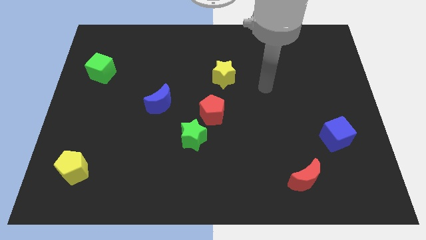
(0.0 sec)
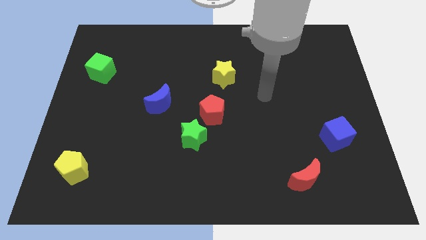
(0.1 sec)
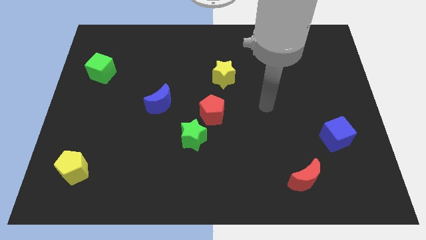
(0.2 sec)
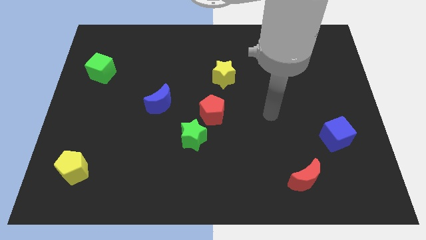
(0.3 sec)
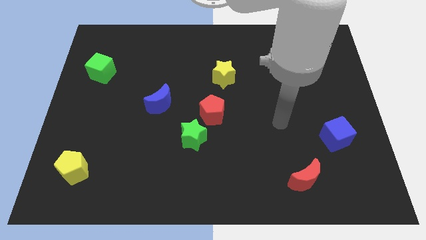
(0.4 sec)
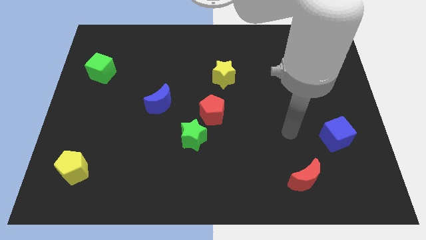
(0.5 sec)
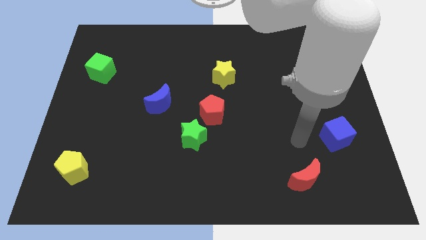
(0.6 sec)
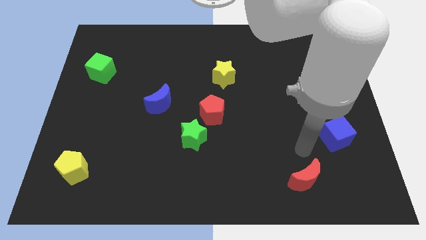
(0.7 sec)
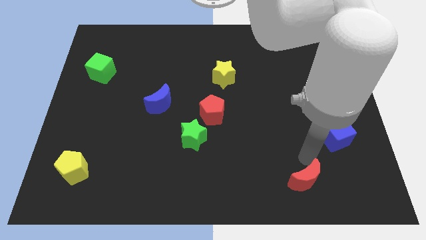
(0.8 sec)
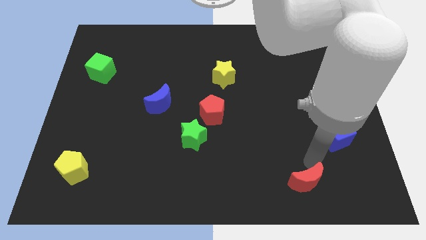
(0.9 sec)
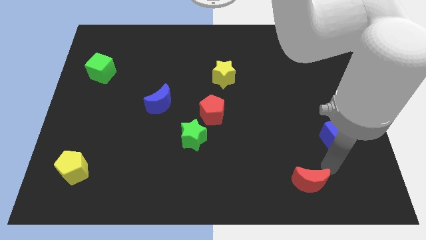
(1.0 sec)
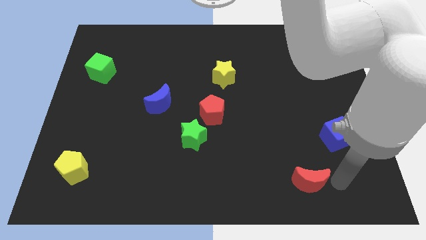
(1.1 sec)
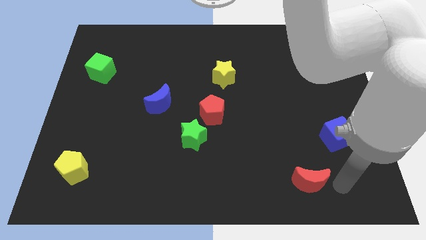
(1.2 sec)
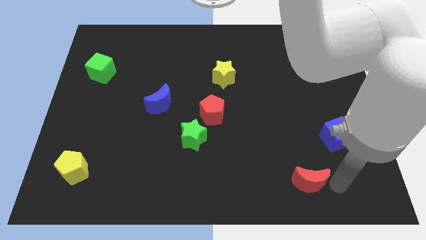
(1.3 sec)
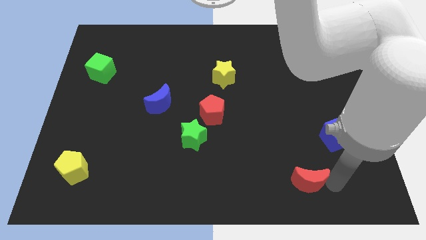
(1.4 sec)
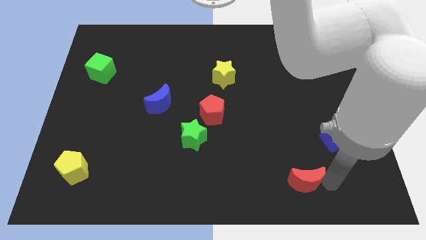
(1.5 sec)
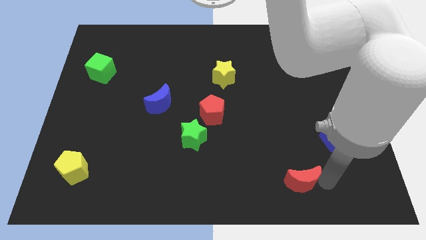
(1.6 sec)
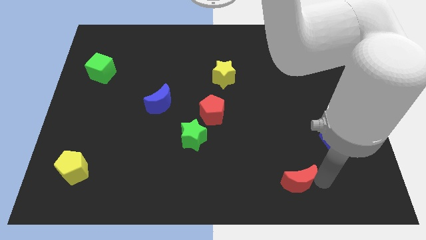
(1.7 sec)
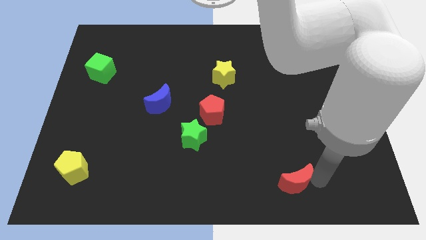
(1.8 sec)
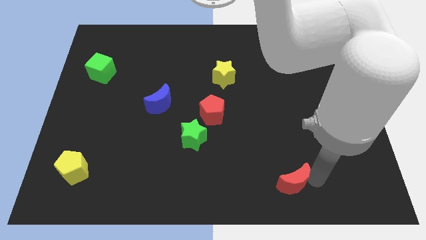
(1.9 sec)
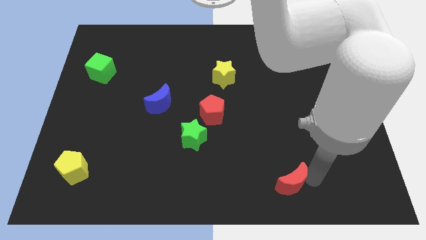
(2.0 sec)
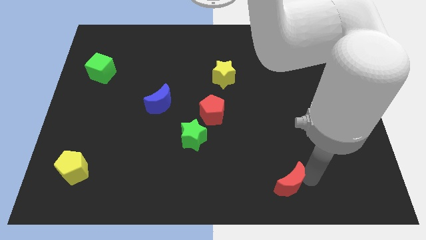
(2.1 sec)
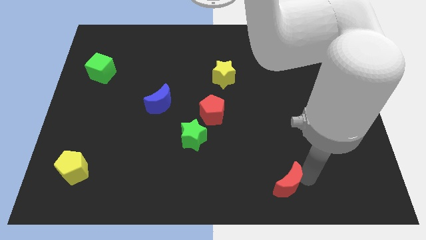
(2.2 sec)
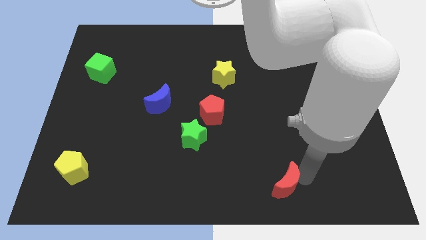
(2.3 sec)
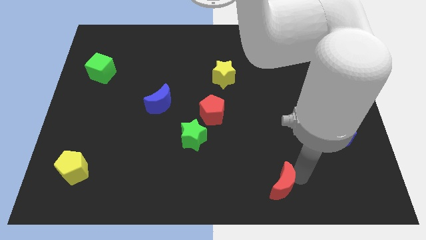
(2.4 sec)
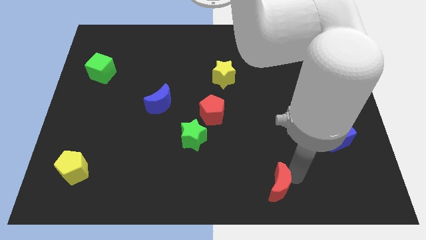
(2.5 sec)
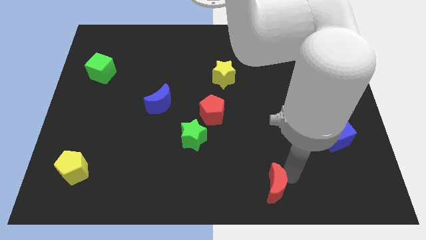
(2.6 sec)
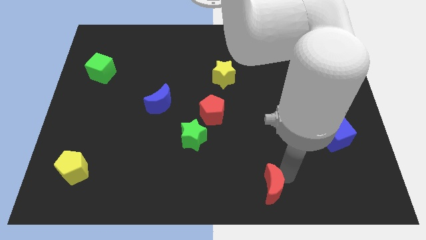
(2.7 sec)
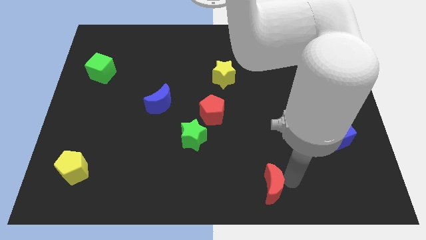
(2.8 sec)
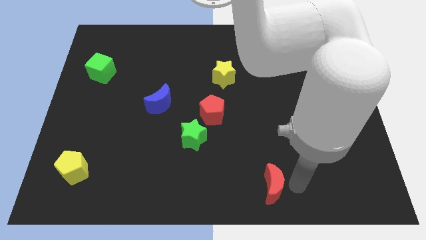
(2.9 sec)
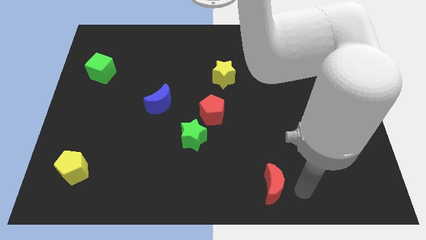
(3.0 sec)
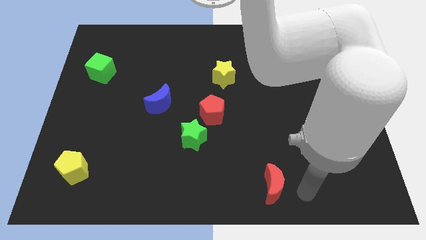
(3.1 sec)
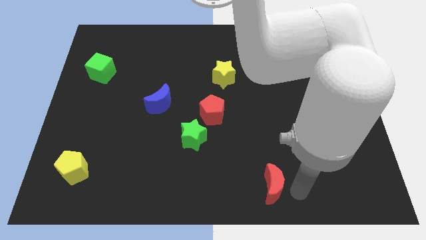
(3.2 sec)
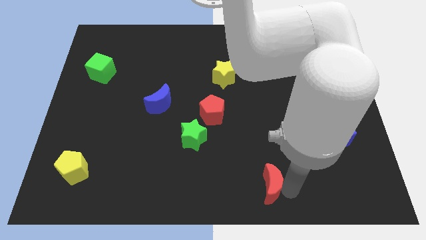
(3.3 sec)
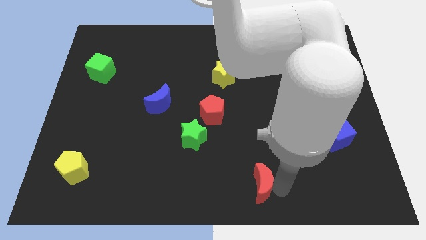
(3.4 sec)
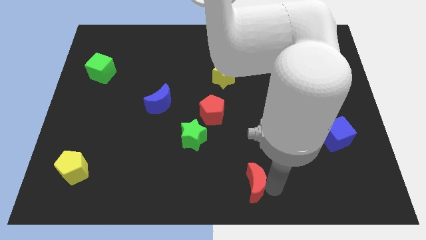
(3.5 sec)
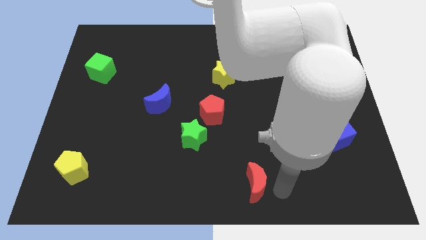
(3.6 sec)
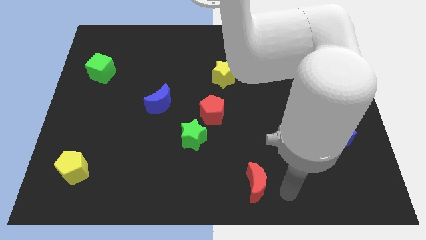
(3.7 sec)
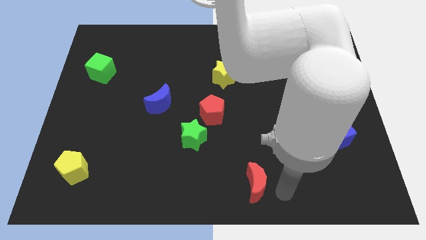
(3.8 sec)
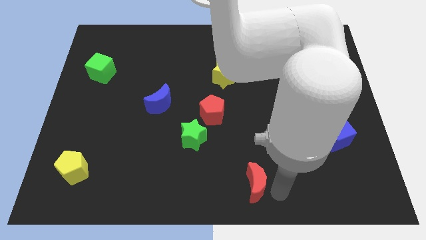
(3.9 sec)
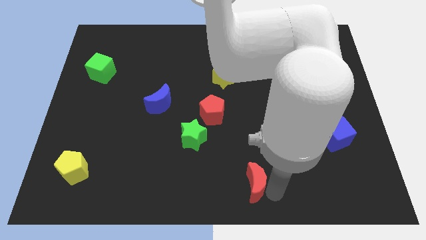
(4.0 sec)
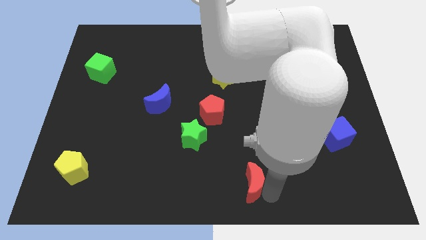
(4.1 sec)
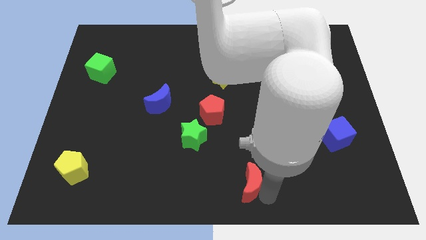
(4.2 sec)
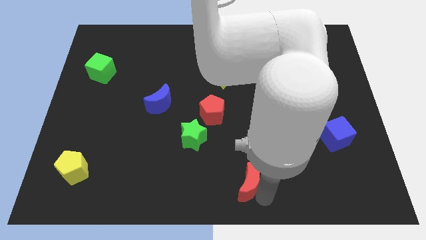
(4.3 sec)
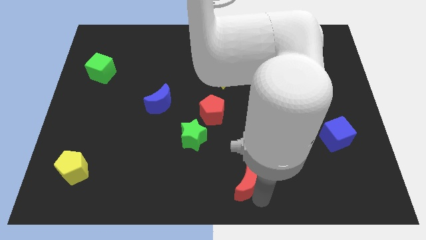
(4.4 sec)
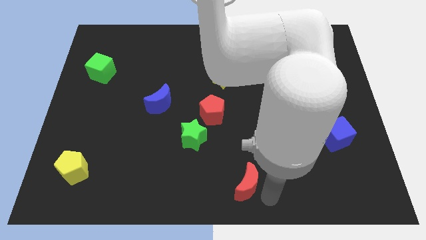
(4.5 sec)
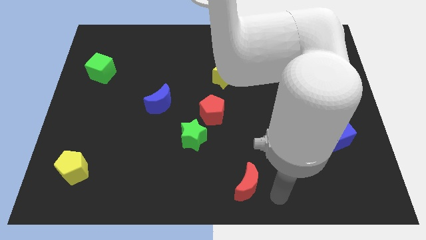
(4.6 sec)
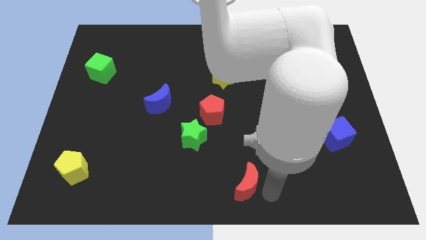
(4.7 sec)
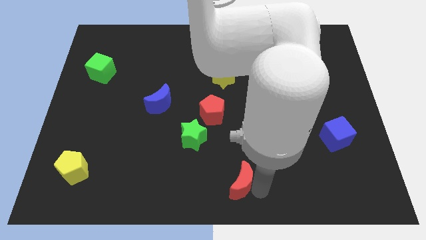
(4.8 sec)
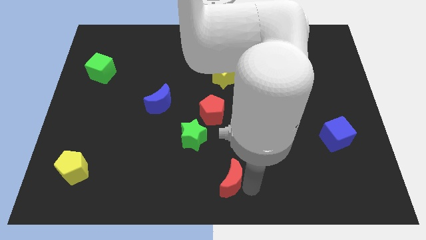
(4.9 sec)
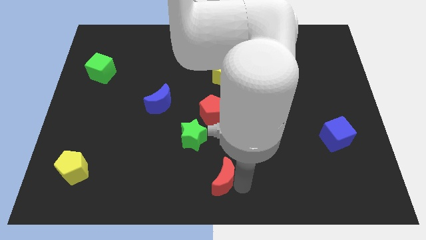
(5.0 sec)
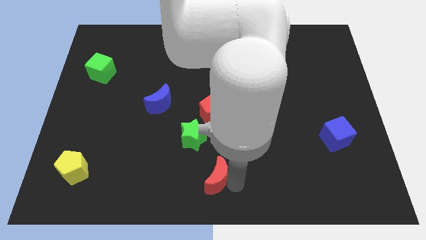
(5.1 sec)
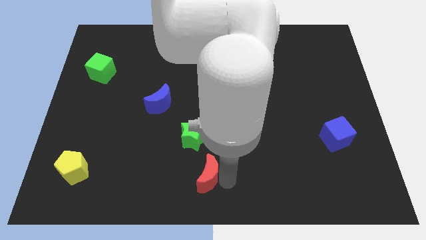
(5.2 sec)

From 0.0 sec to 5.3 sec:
put the red moon to the bottom side of the green star

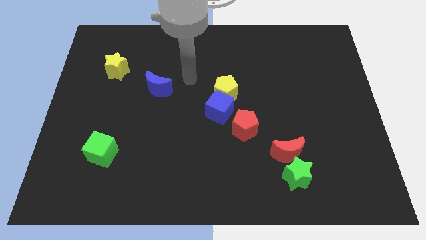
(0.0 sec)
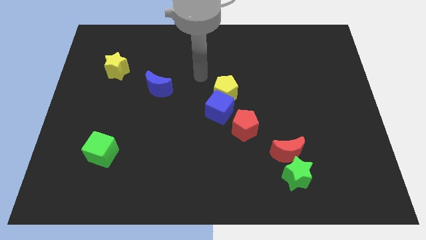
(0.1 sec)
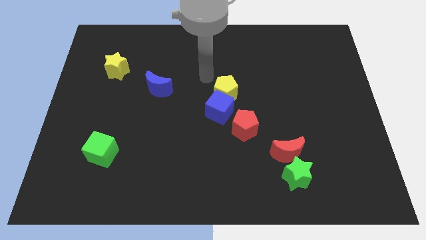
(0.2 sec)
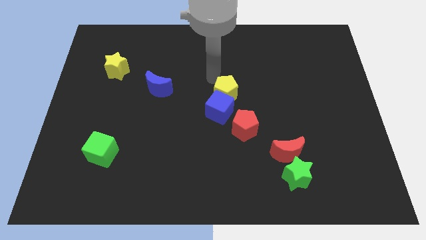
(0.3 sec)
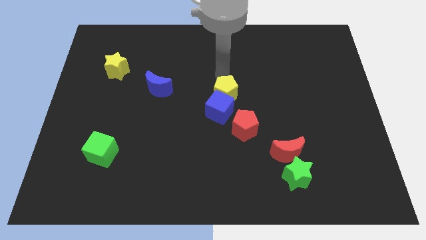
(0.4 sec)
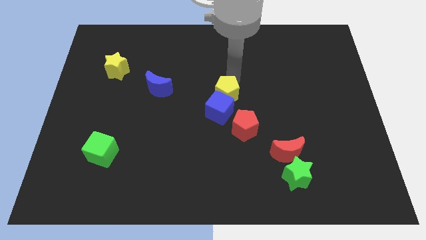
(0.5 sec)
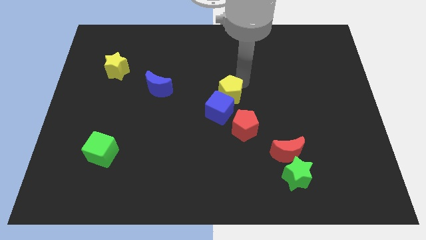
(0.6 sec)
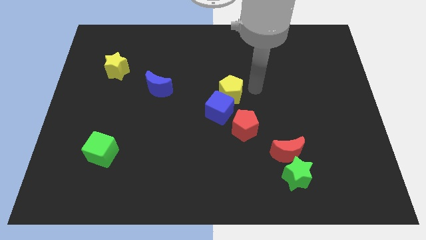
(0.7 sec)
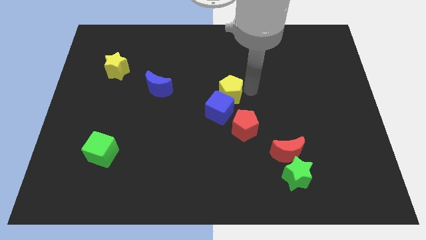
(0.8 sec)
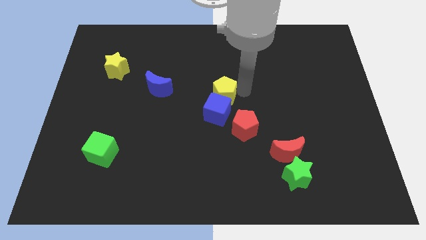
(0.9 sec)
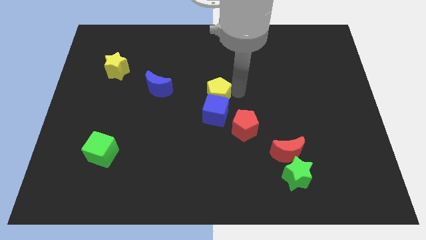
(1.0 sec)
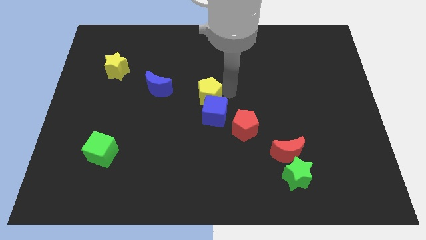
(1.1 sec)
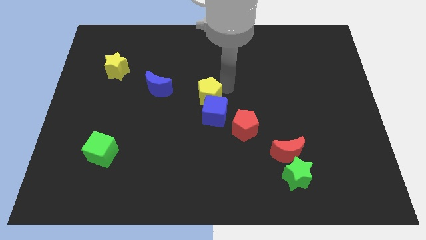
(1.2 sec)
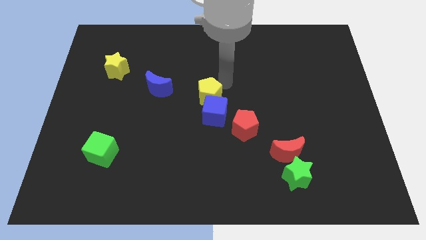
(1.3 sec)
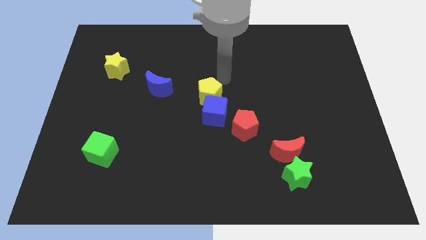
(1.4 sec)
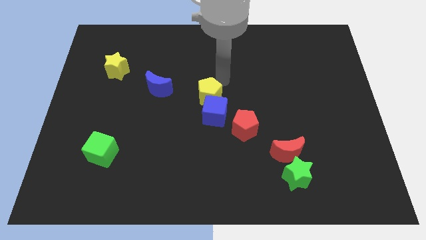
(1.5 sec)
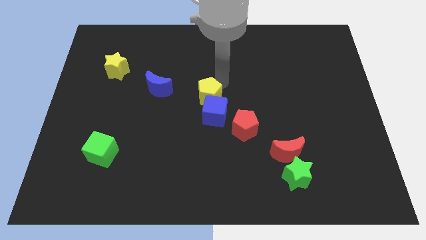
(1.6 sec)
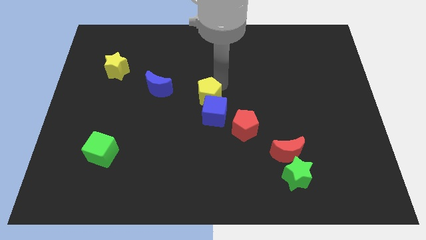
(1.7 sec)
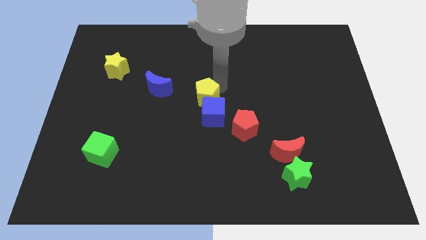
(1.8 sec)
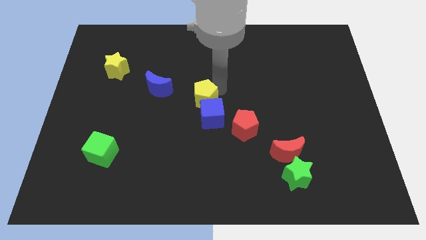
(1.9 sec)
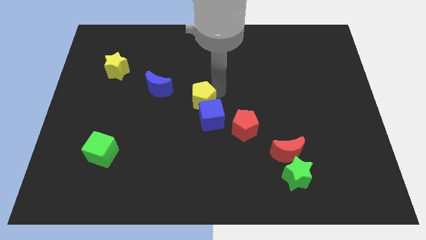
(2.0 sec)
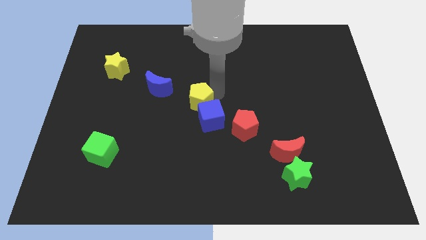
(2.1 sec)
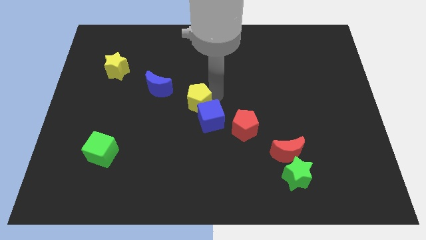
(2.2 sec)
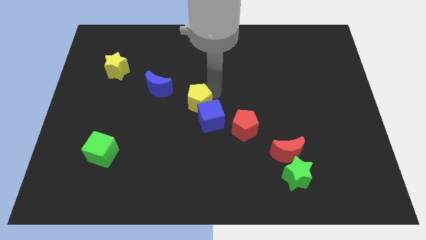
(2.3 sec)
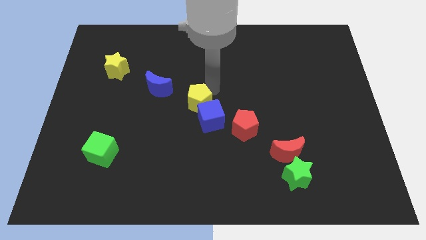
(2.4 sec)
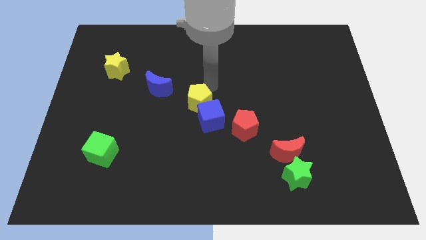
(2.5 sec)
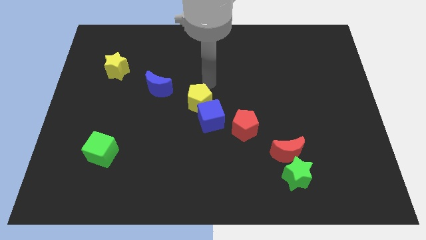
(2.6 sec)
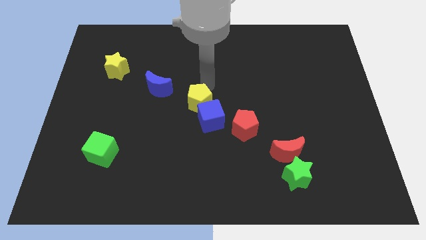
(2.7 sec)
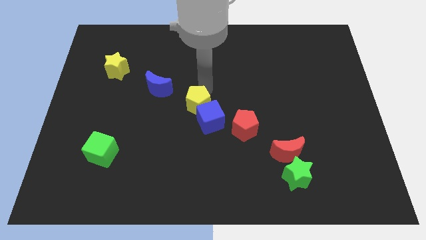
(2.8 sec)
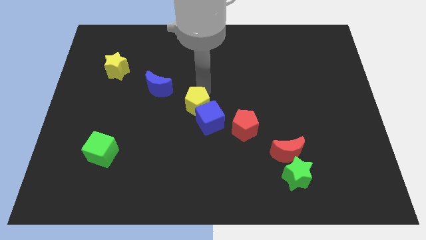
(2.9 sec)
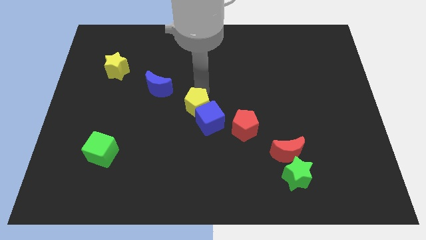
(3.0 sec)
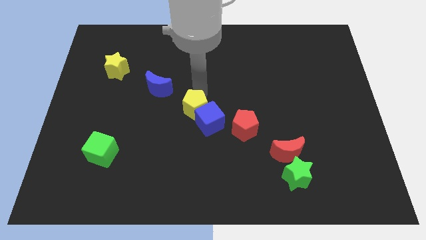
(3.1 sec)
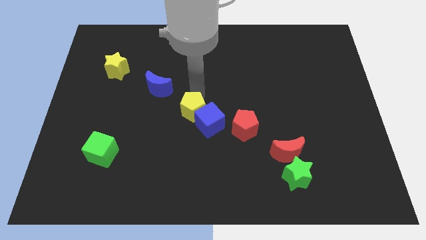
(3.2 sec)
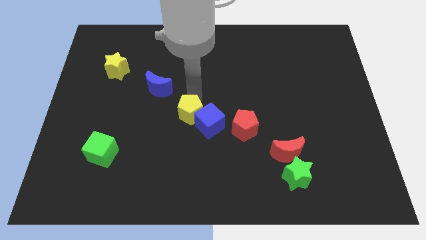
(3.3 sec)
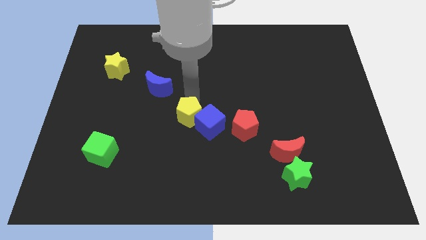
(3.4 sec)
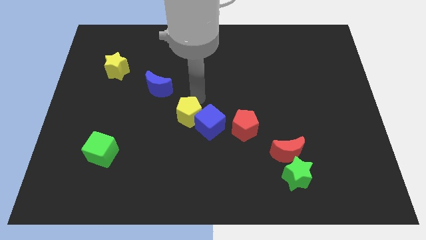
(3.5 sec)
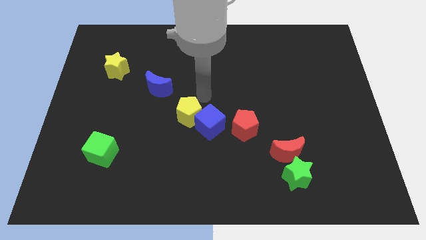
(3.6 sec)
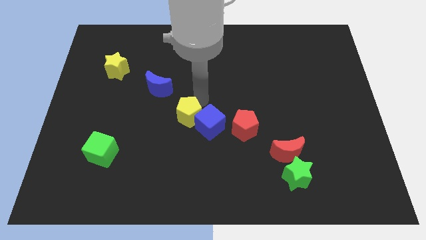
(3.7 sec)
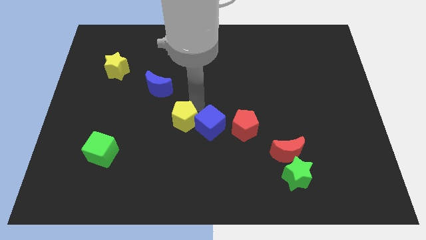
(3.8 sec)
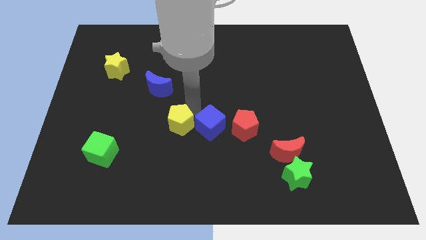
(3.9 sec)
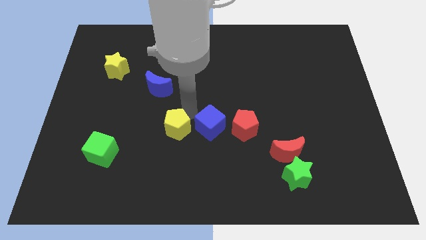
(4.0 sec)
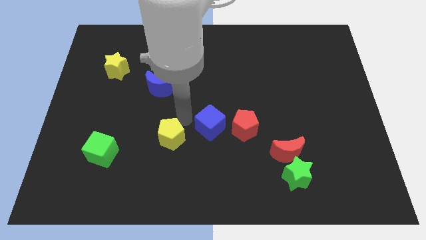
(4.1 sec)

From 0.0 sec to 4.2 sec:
put the yellow pentagon to the right of the green cube
